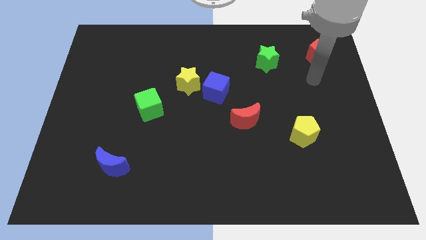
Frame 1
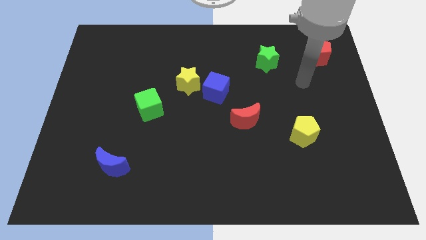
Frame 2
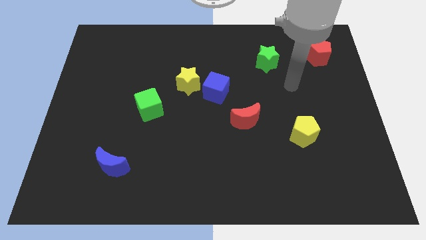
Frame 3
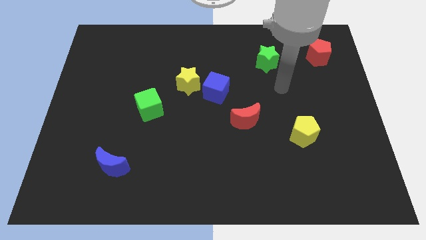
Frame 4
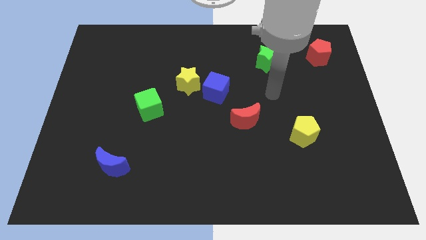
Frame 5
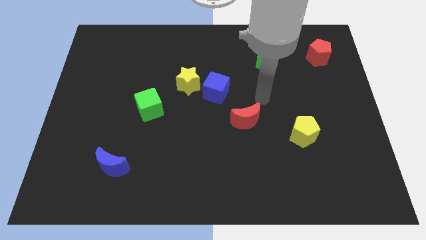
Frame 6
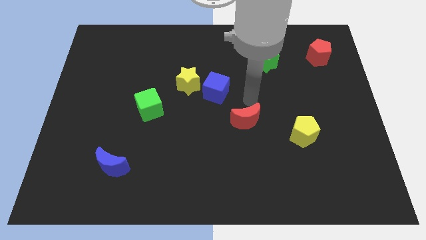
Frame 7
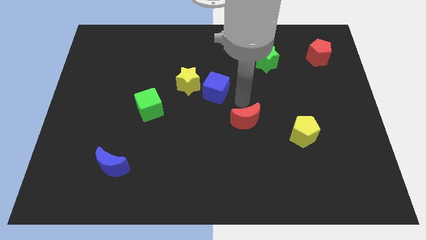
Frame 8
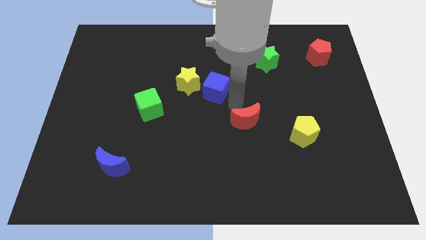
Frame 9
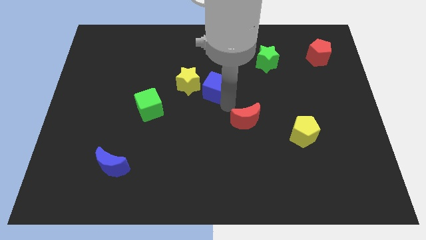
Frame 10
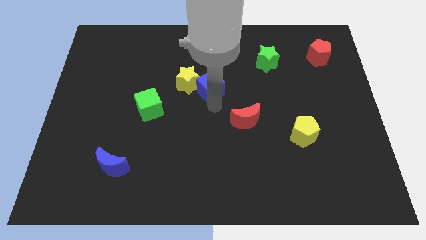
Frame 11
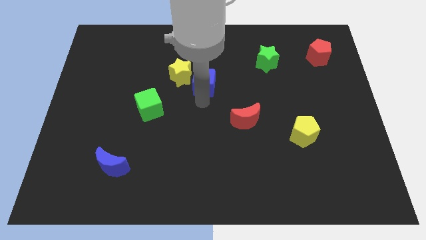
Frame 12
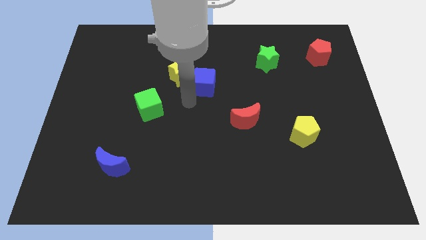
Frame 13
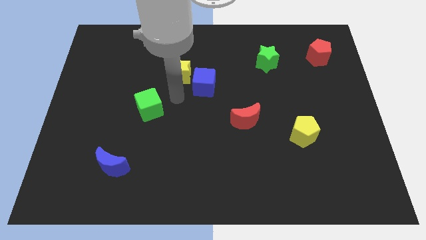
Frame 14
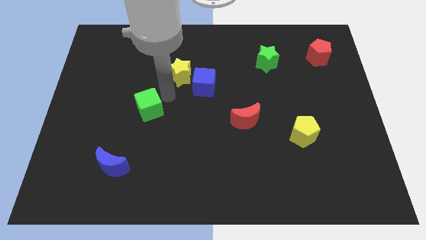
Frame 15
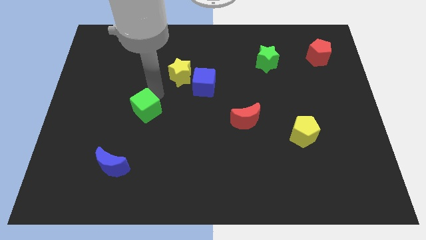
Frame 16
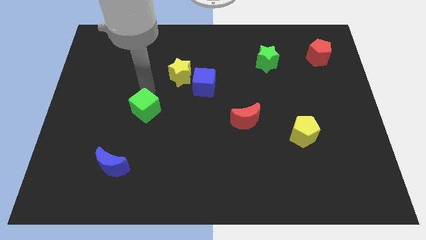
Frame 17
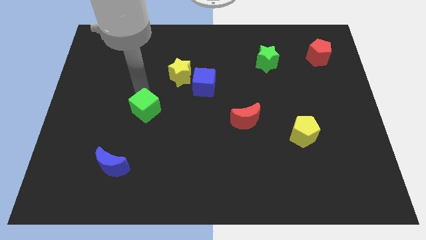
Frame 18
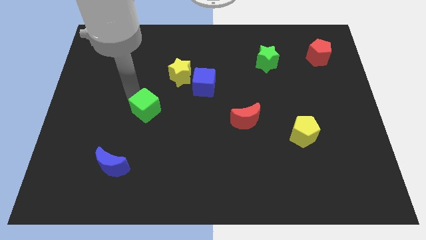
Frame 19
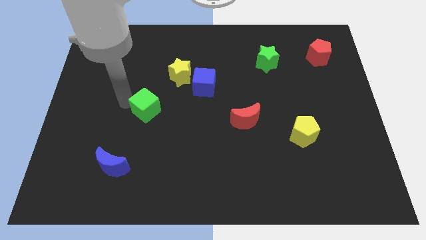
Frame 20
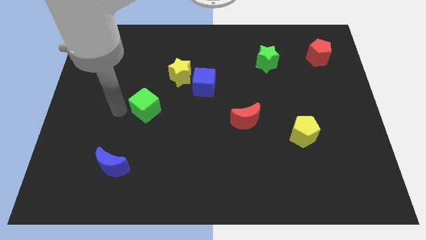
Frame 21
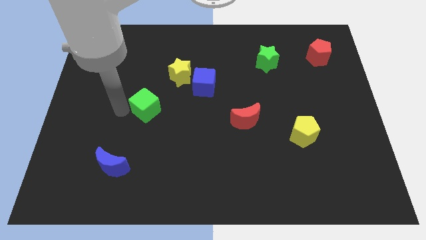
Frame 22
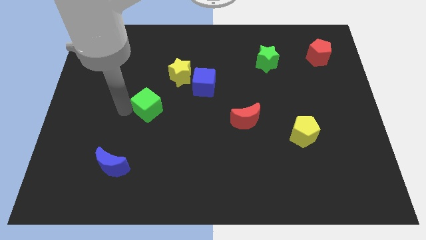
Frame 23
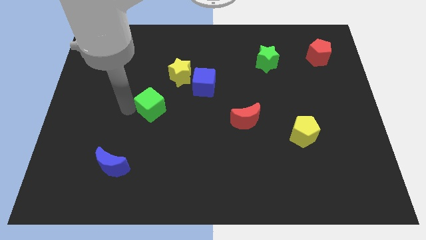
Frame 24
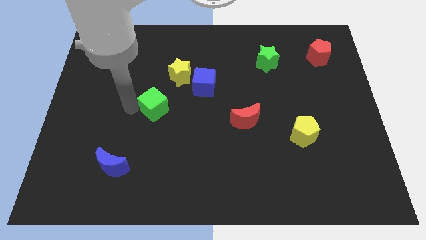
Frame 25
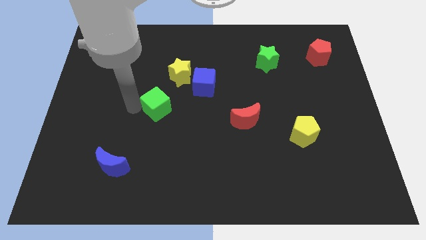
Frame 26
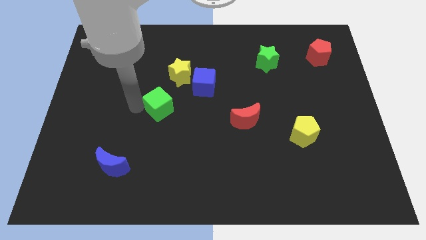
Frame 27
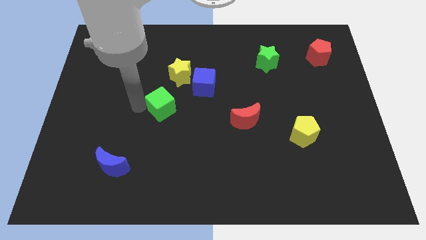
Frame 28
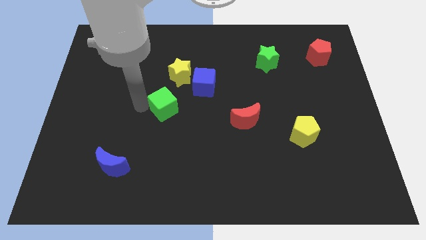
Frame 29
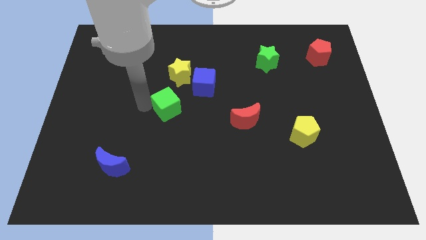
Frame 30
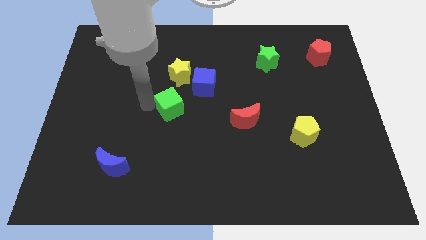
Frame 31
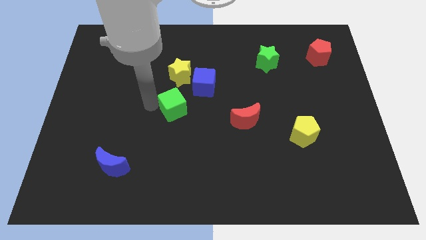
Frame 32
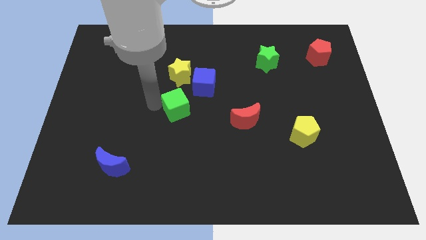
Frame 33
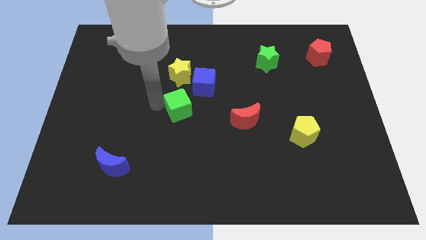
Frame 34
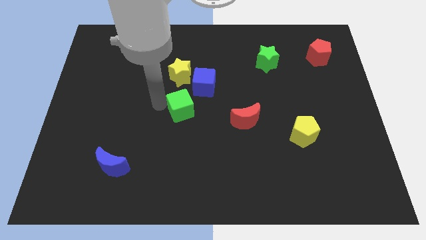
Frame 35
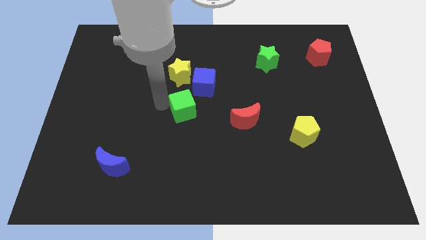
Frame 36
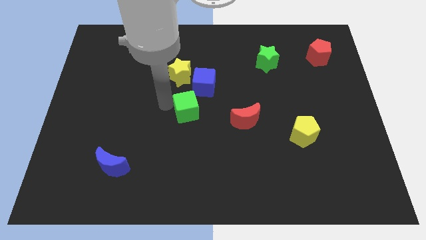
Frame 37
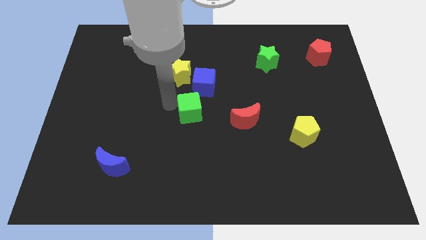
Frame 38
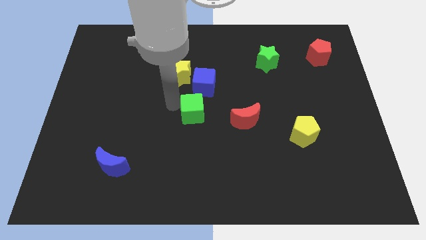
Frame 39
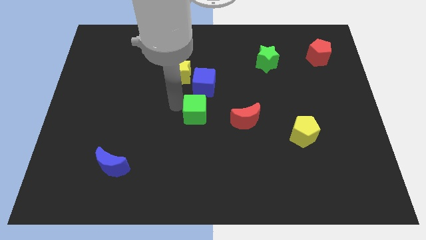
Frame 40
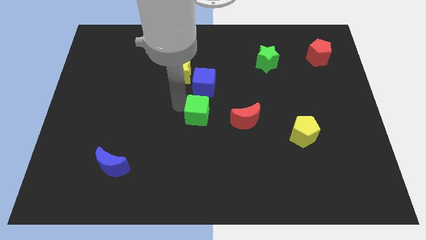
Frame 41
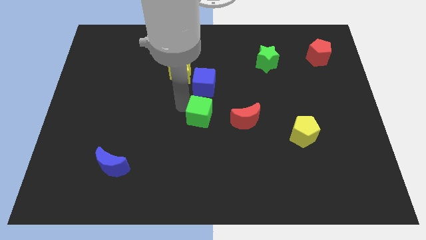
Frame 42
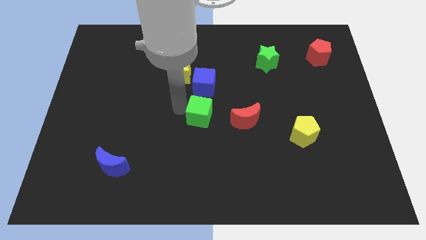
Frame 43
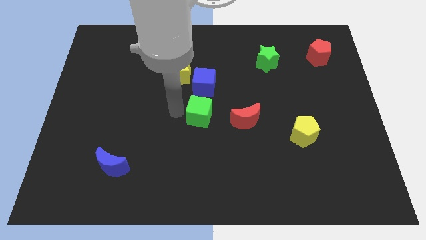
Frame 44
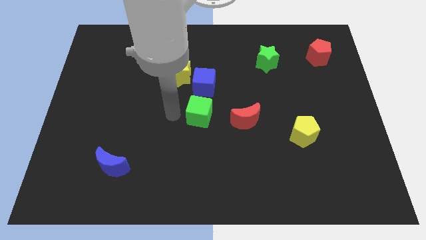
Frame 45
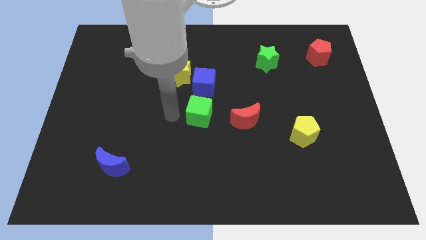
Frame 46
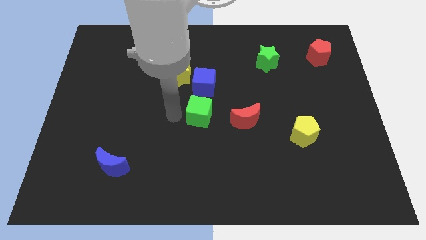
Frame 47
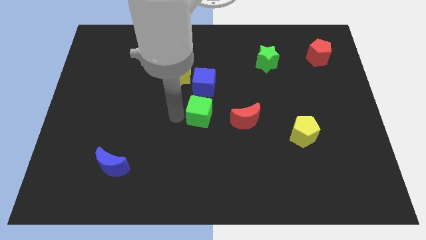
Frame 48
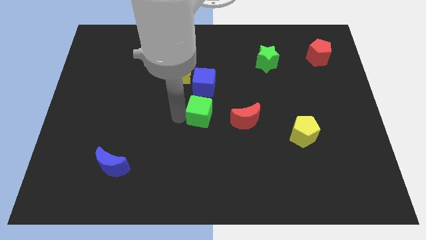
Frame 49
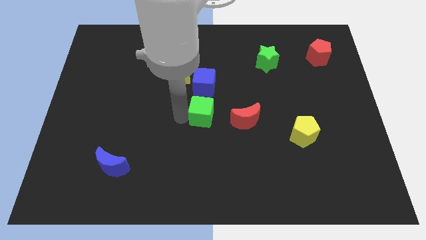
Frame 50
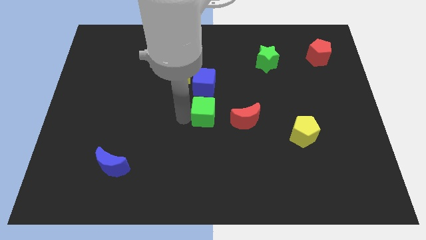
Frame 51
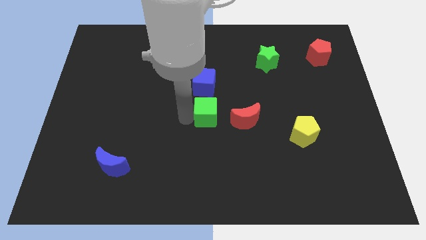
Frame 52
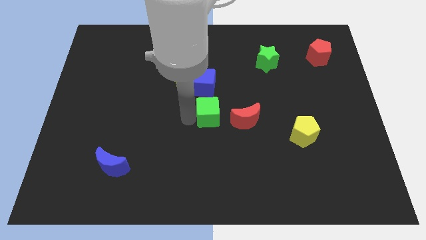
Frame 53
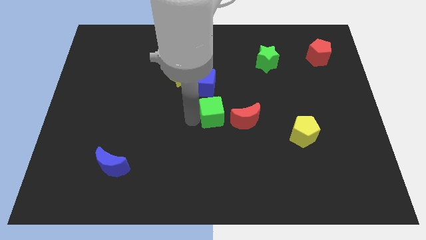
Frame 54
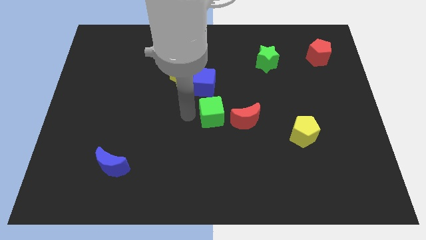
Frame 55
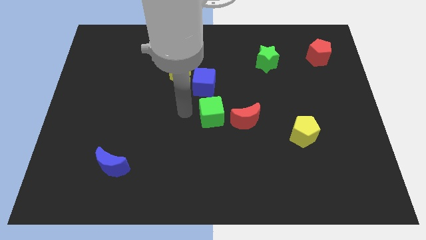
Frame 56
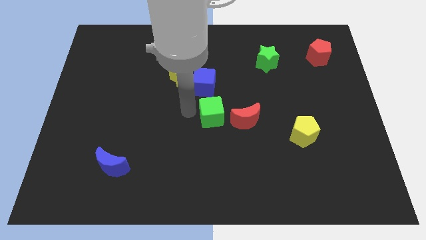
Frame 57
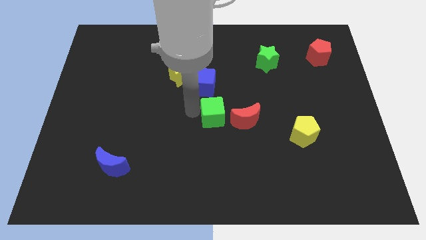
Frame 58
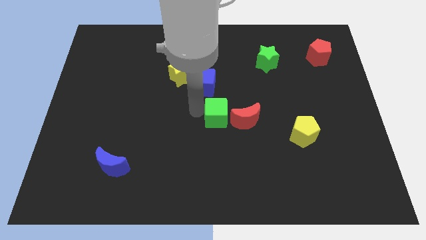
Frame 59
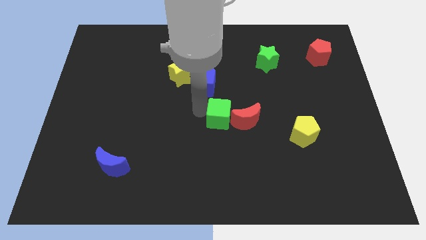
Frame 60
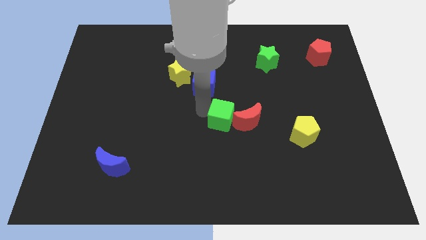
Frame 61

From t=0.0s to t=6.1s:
put the green cube close to the red moon
